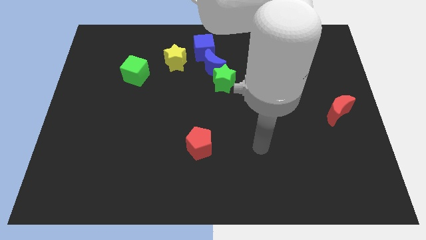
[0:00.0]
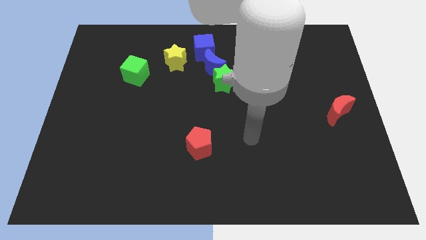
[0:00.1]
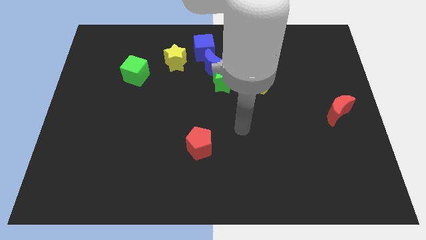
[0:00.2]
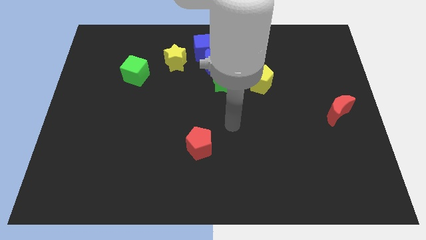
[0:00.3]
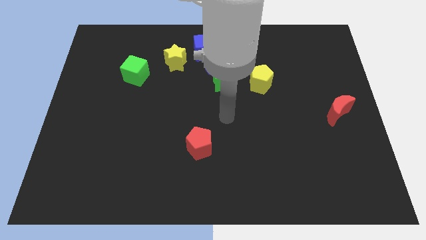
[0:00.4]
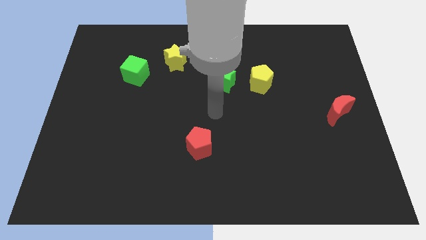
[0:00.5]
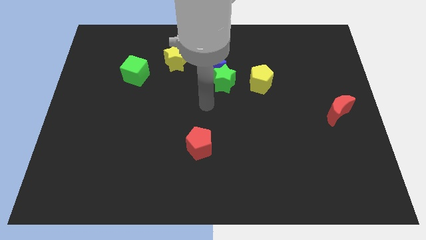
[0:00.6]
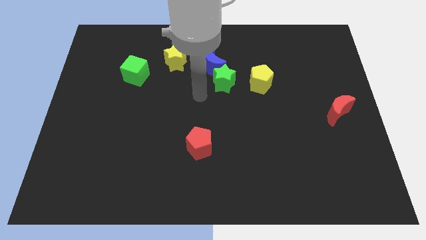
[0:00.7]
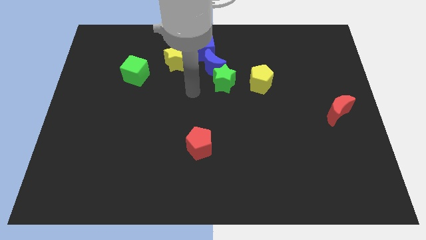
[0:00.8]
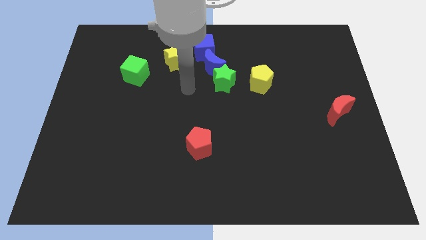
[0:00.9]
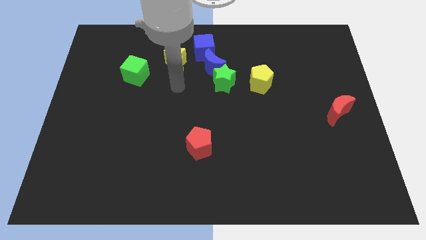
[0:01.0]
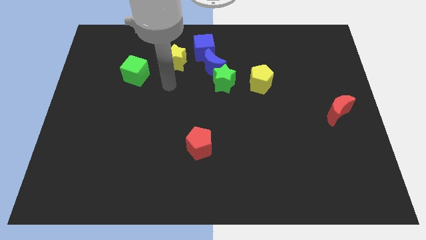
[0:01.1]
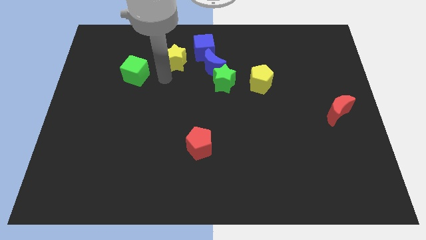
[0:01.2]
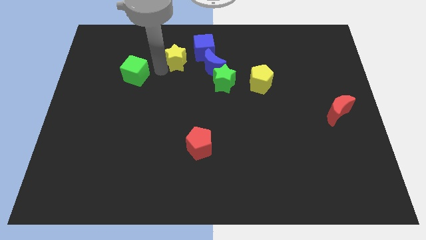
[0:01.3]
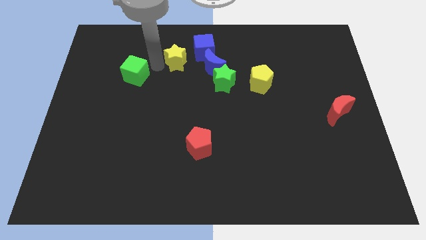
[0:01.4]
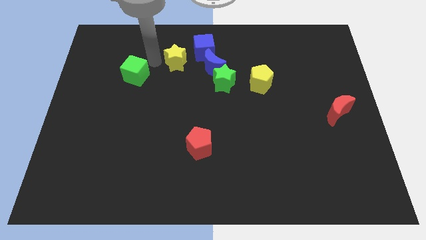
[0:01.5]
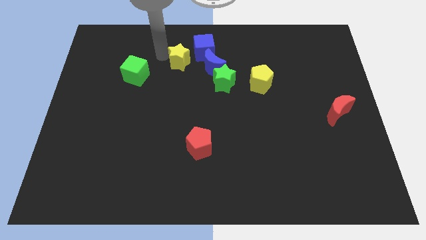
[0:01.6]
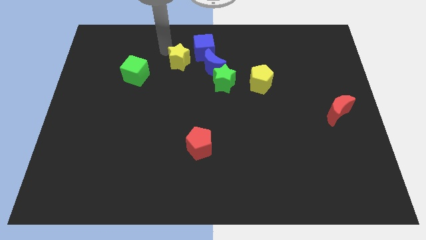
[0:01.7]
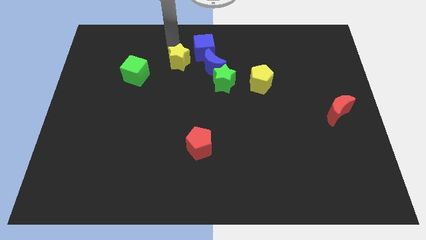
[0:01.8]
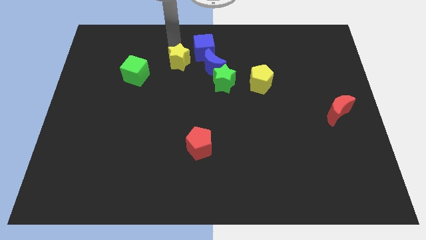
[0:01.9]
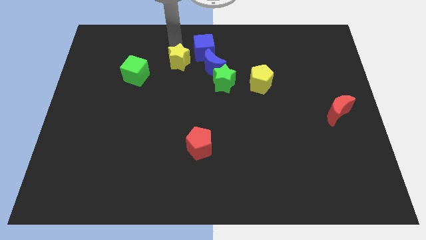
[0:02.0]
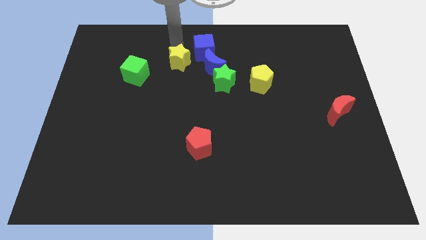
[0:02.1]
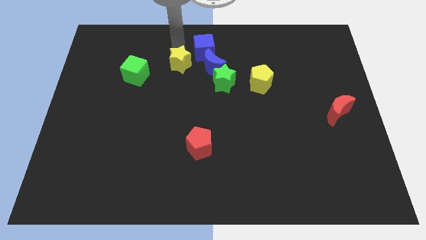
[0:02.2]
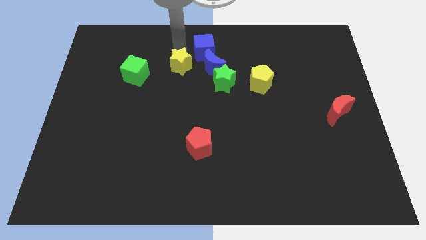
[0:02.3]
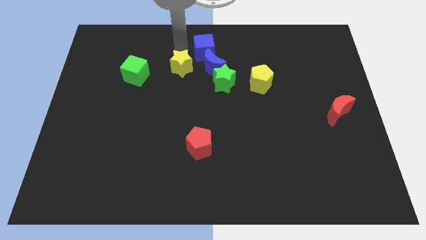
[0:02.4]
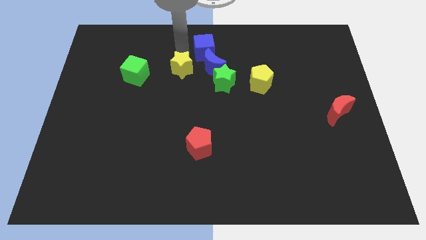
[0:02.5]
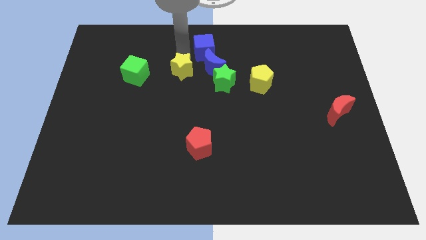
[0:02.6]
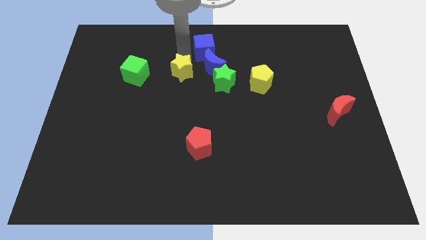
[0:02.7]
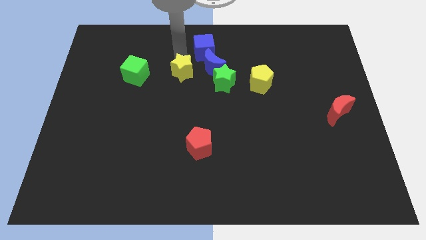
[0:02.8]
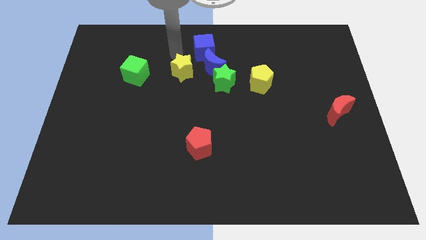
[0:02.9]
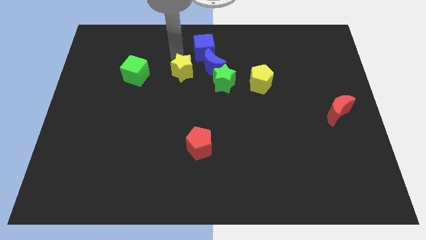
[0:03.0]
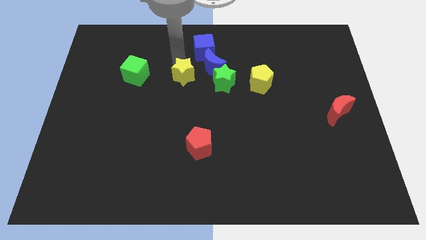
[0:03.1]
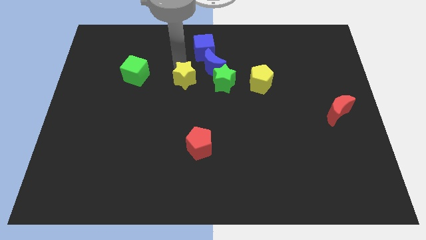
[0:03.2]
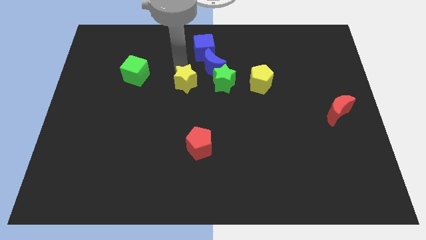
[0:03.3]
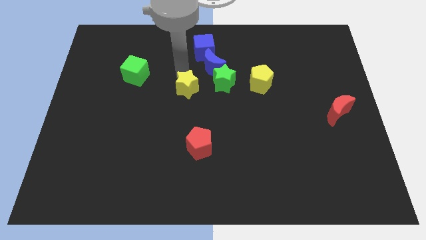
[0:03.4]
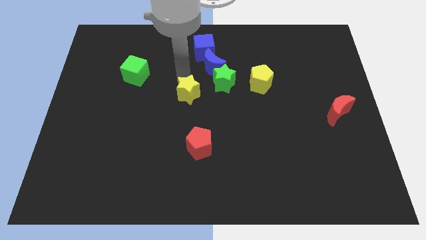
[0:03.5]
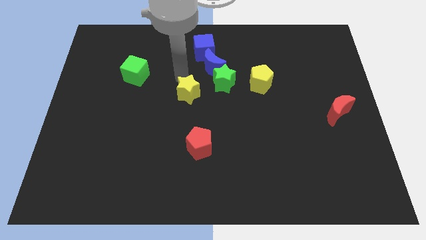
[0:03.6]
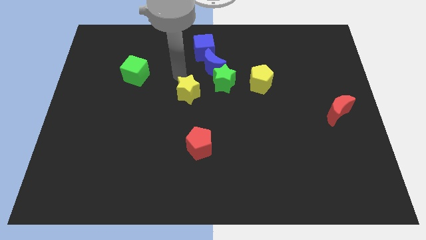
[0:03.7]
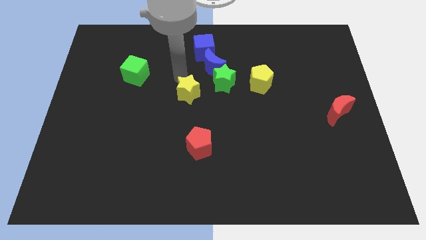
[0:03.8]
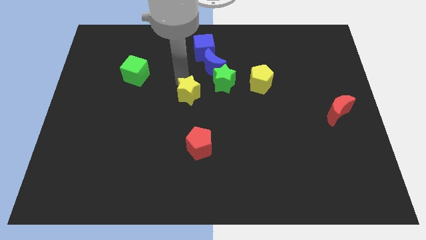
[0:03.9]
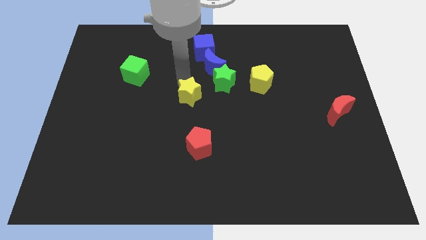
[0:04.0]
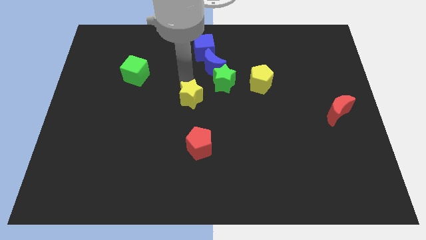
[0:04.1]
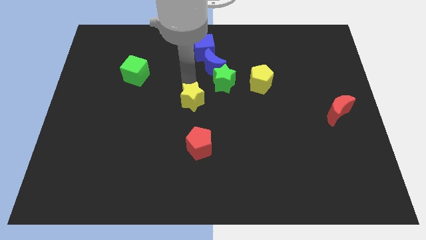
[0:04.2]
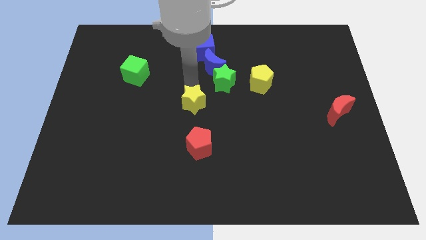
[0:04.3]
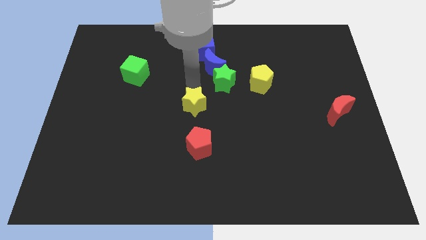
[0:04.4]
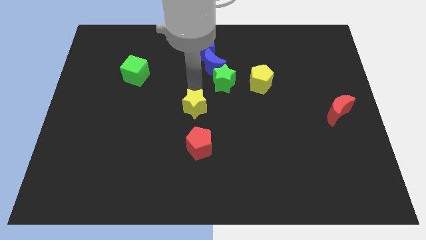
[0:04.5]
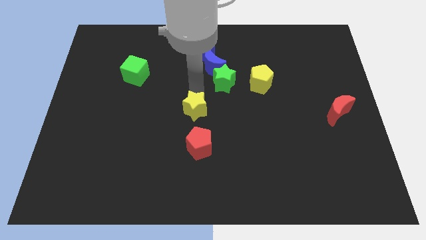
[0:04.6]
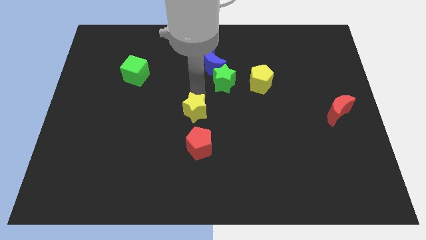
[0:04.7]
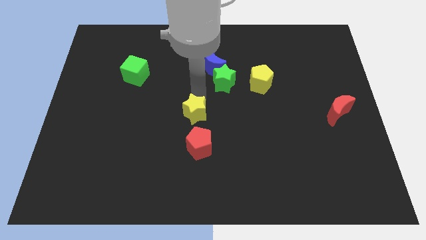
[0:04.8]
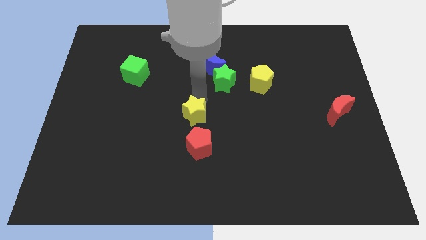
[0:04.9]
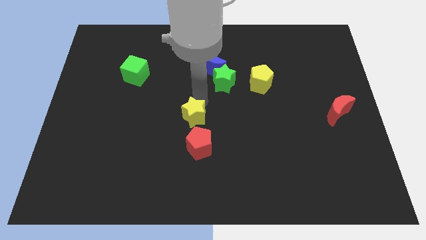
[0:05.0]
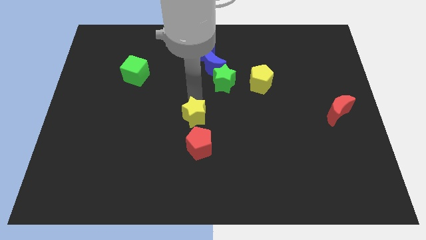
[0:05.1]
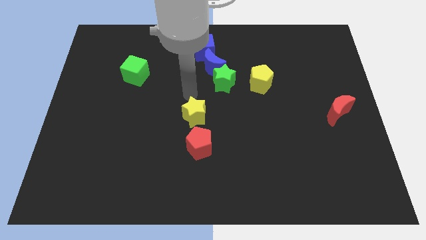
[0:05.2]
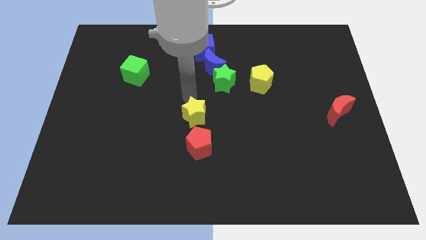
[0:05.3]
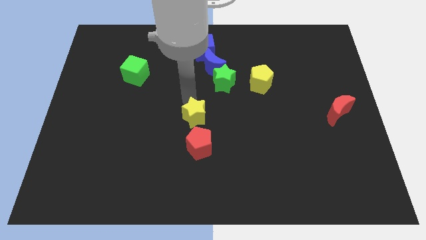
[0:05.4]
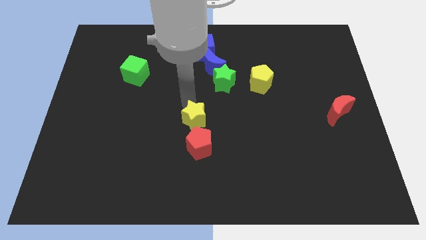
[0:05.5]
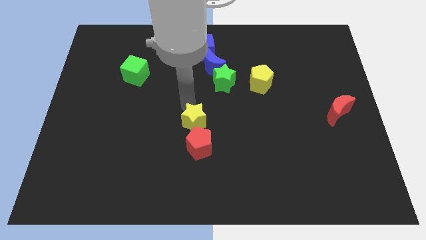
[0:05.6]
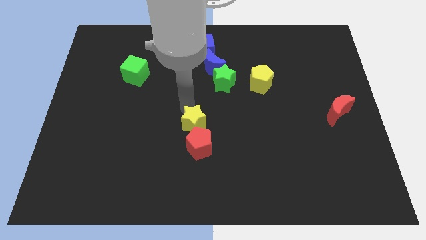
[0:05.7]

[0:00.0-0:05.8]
move the yellow star close to the red pentagon

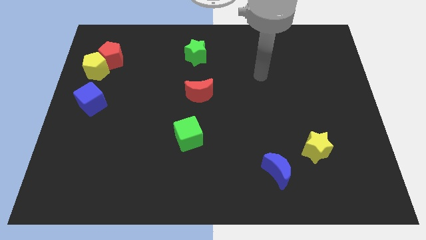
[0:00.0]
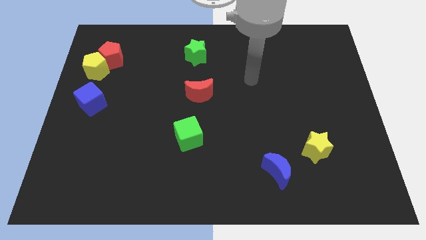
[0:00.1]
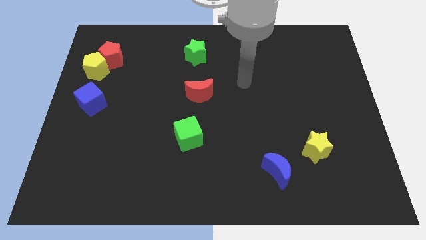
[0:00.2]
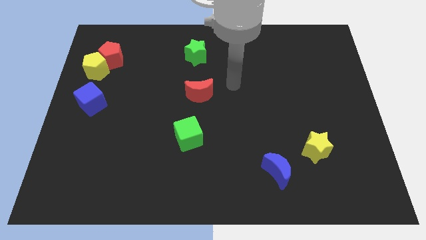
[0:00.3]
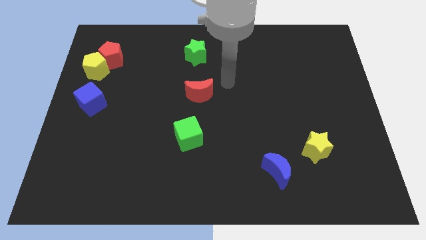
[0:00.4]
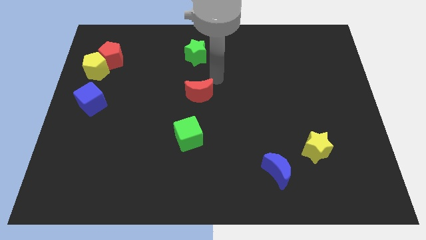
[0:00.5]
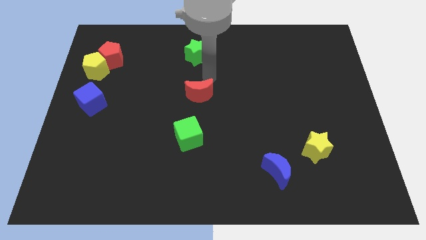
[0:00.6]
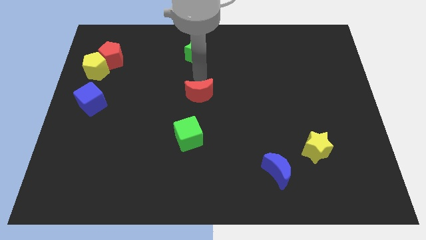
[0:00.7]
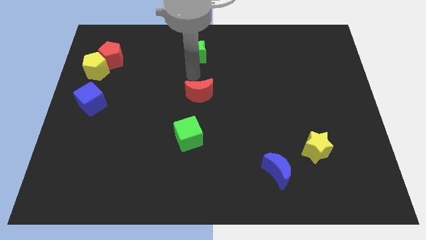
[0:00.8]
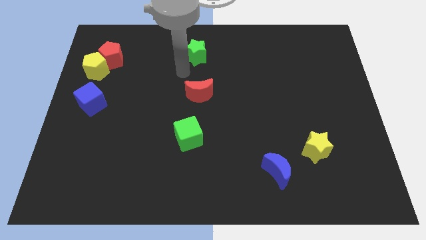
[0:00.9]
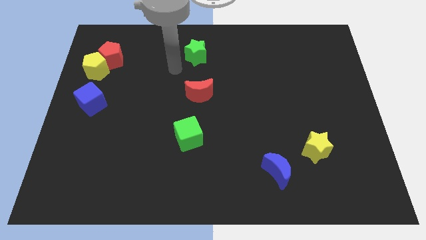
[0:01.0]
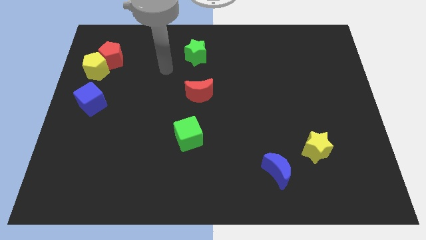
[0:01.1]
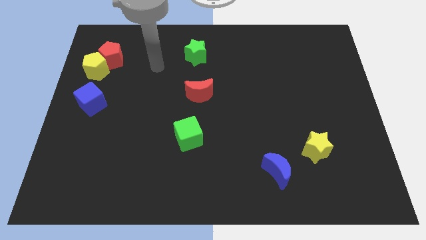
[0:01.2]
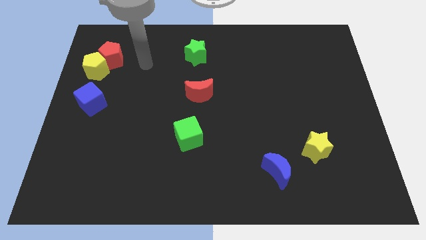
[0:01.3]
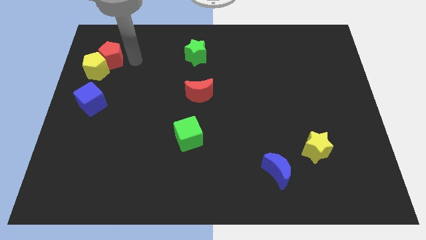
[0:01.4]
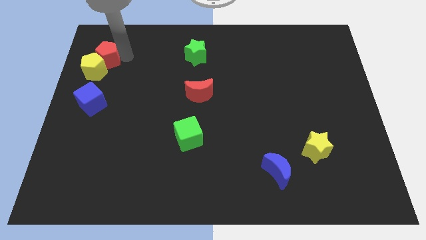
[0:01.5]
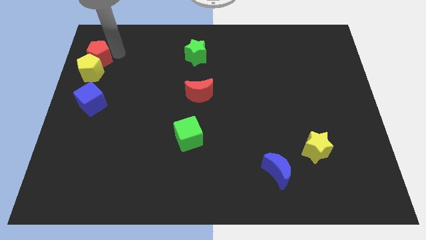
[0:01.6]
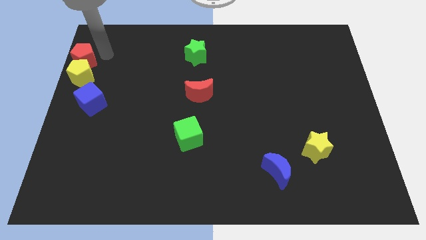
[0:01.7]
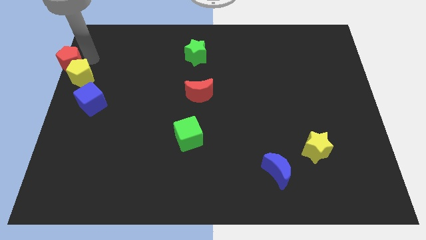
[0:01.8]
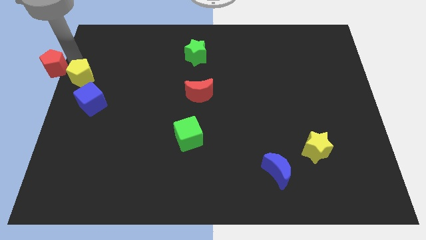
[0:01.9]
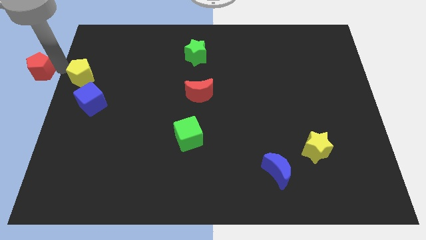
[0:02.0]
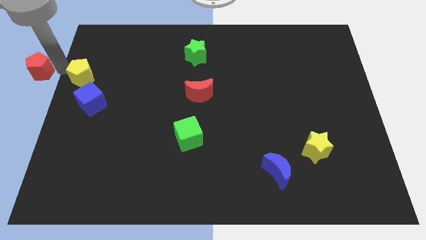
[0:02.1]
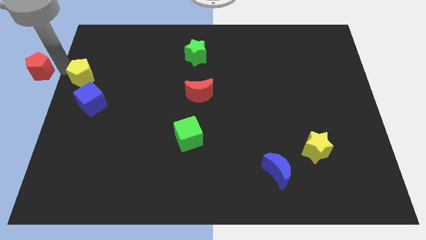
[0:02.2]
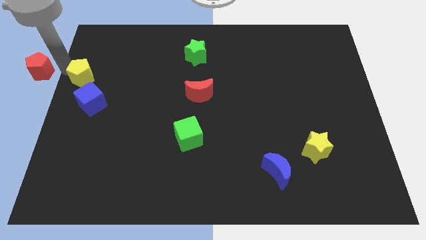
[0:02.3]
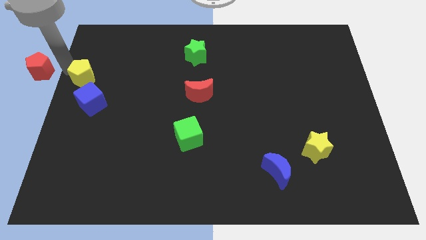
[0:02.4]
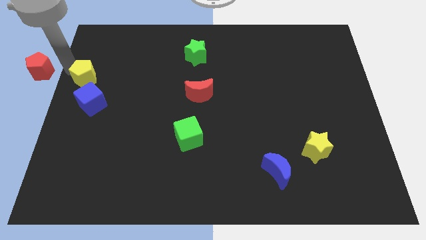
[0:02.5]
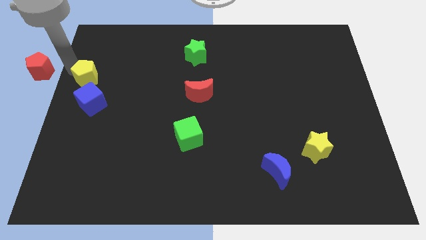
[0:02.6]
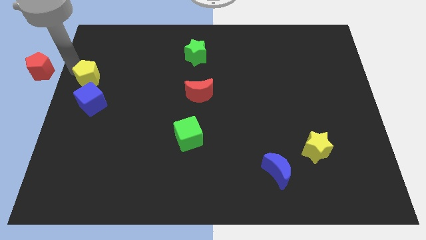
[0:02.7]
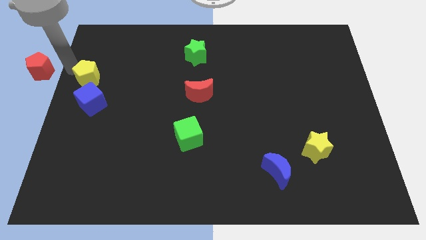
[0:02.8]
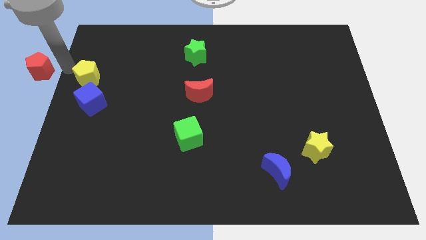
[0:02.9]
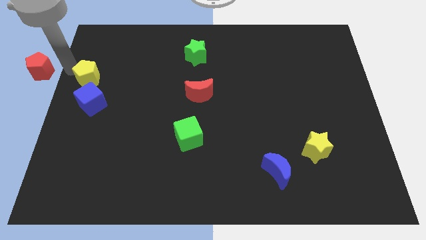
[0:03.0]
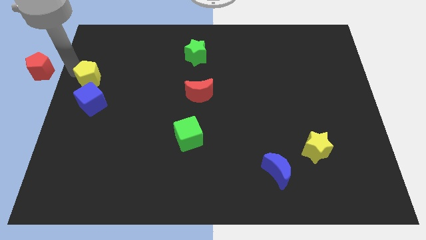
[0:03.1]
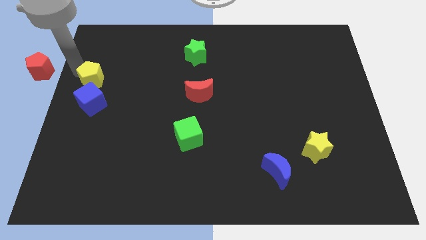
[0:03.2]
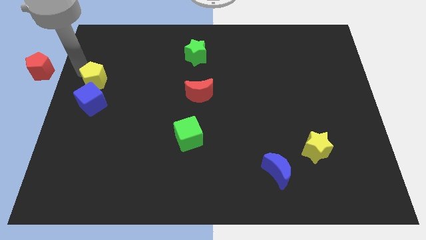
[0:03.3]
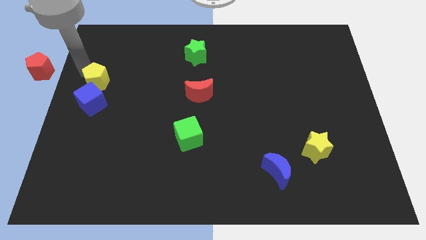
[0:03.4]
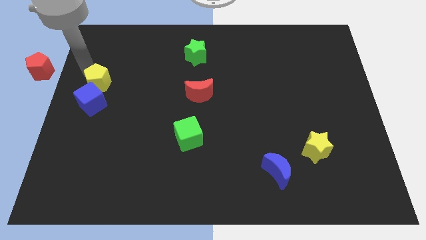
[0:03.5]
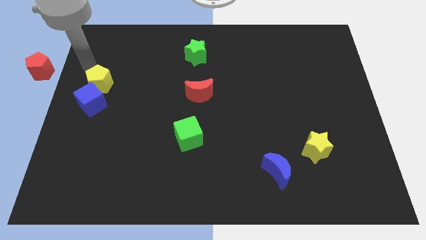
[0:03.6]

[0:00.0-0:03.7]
push the yellow pentagon next to the blue cube
